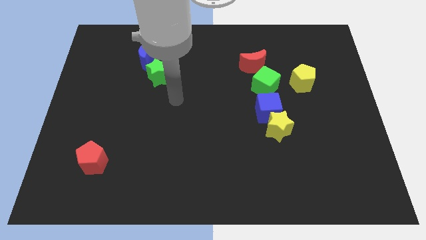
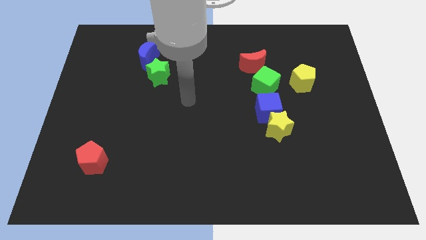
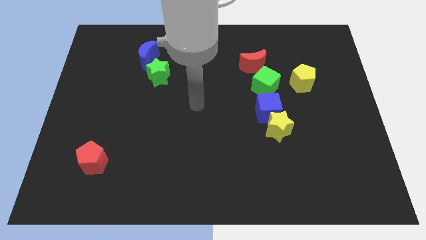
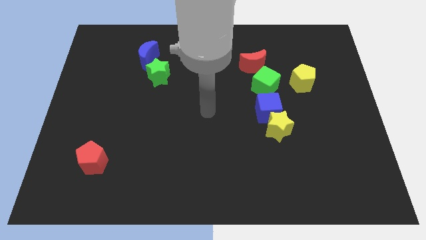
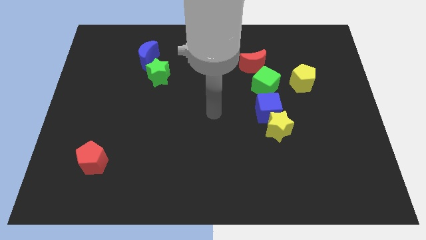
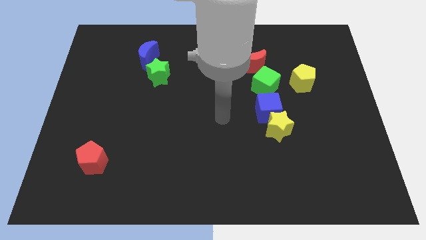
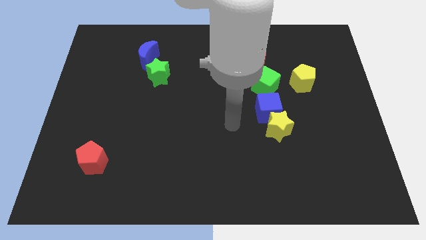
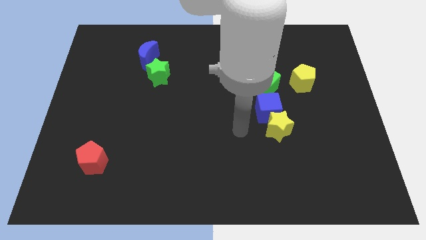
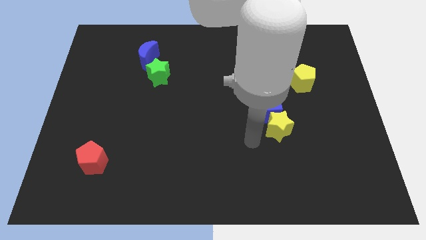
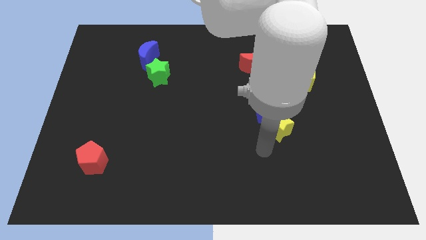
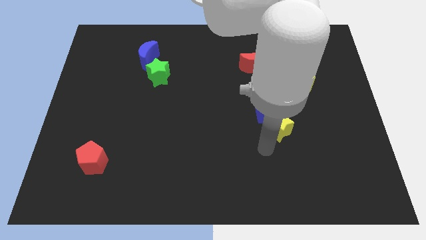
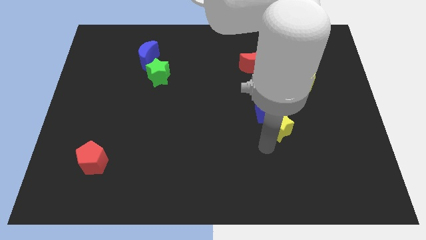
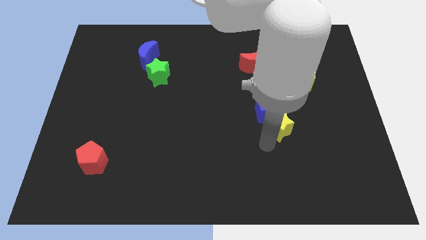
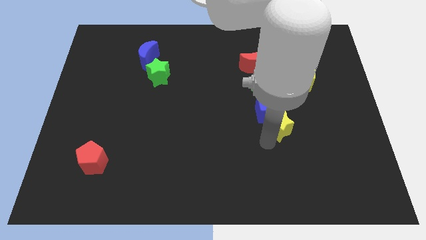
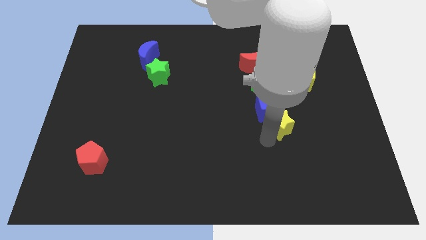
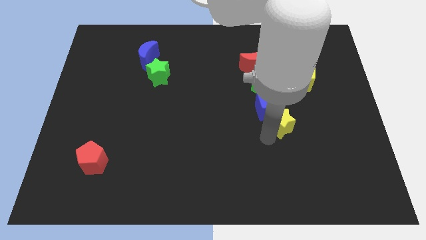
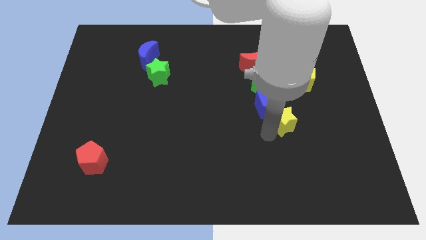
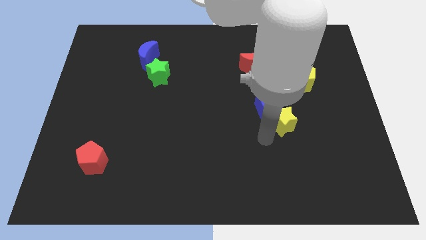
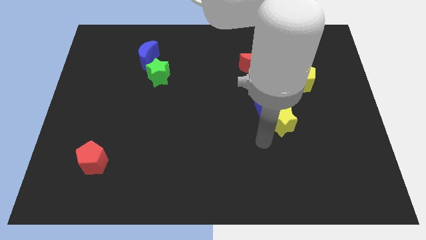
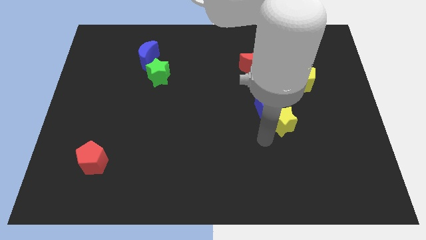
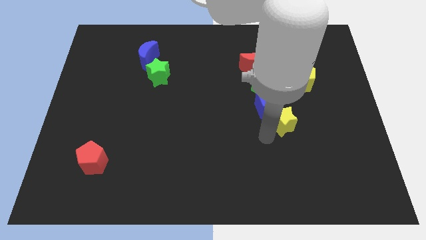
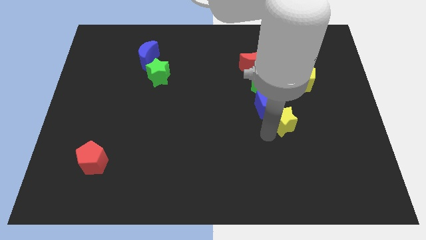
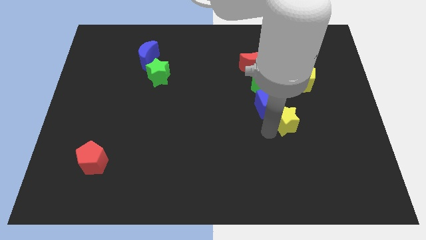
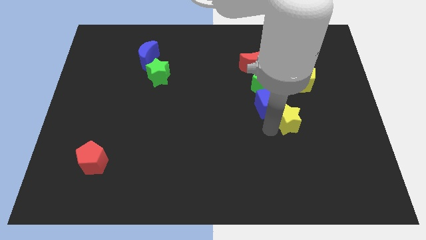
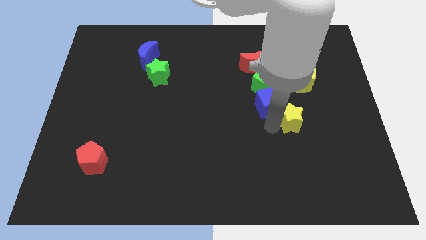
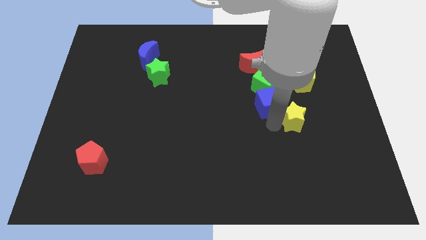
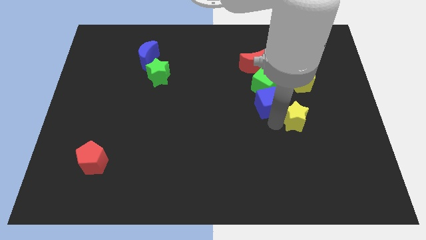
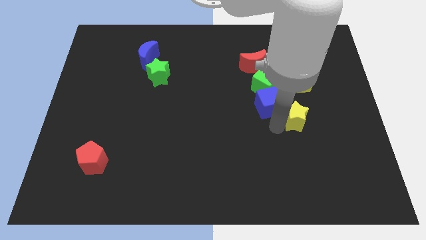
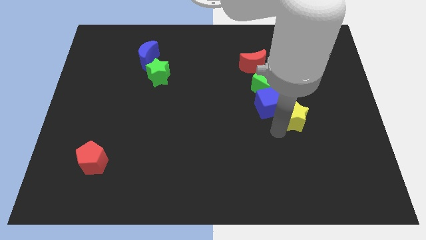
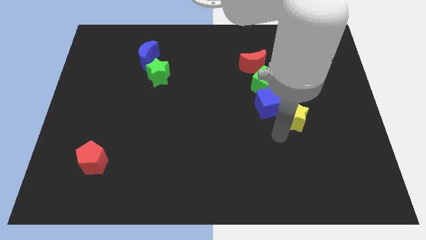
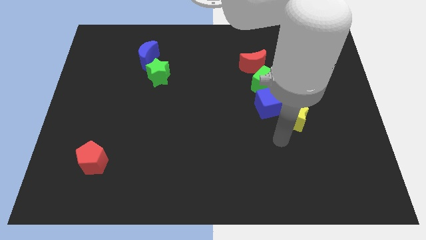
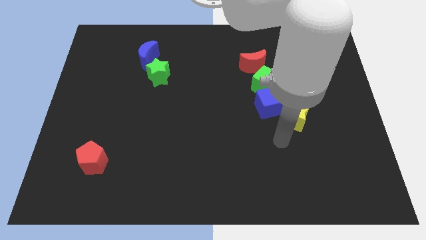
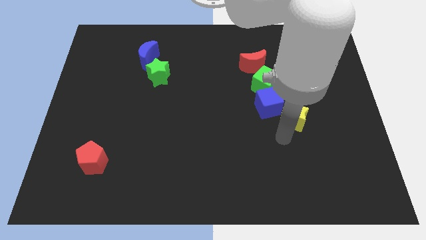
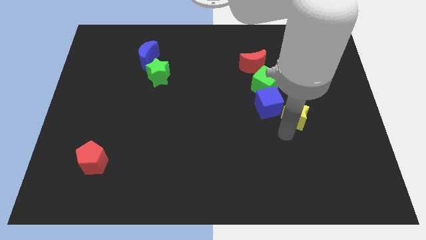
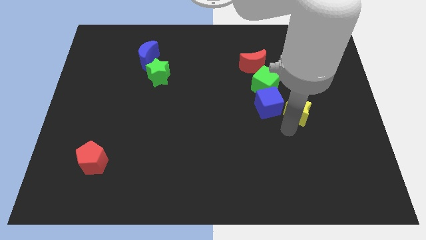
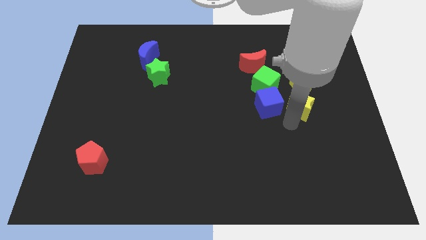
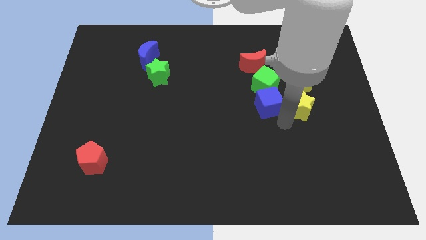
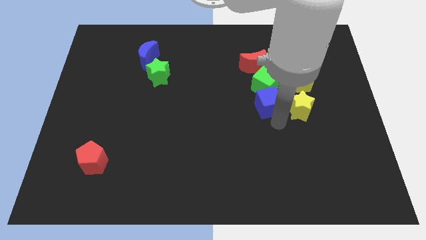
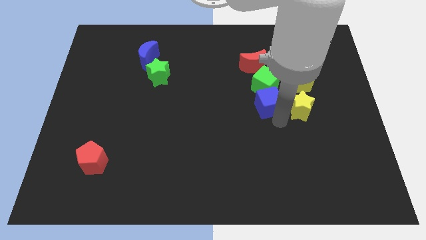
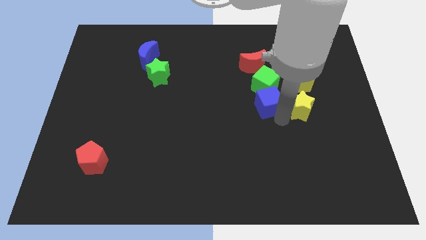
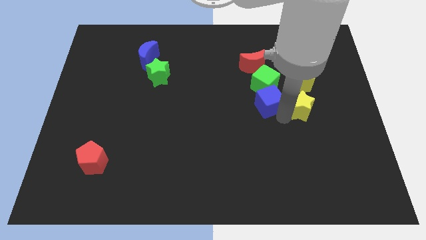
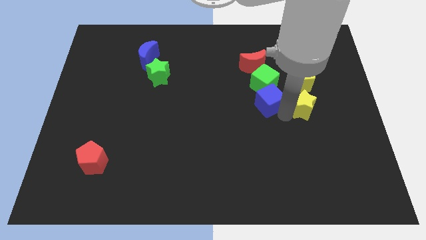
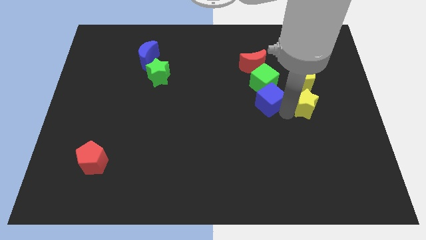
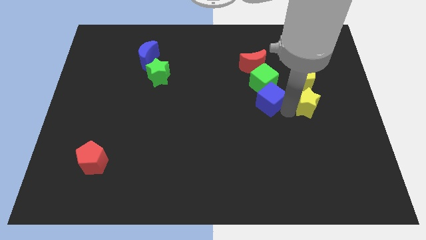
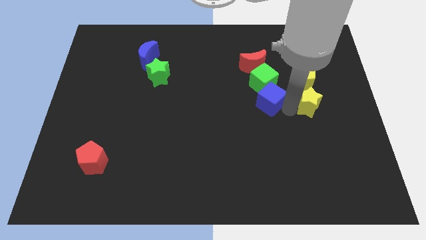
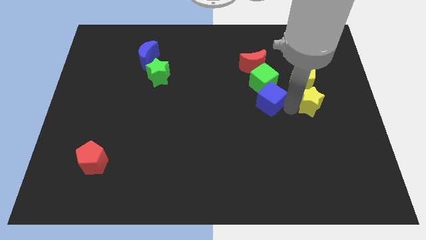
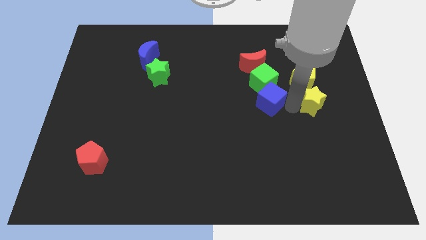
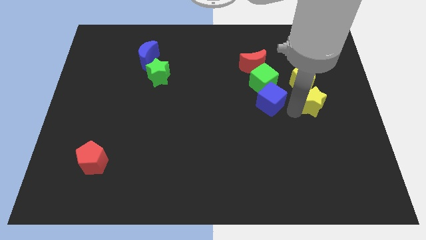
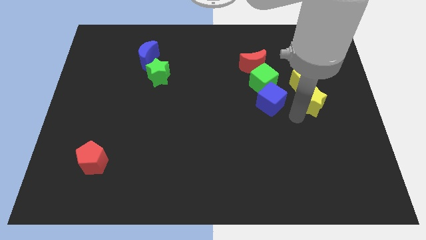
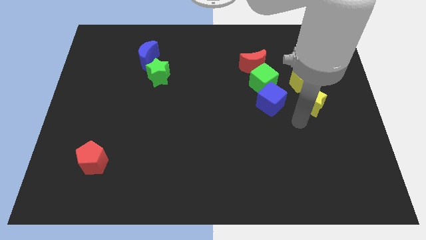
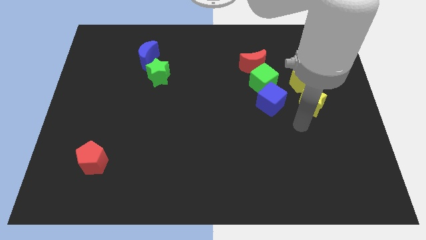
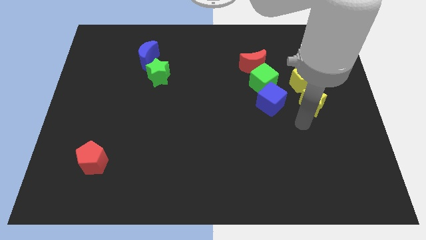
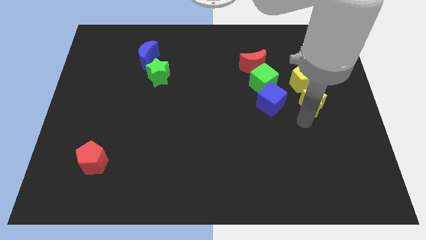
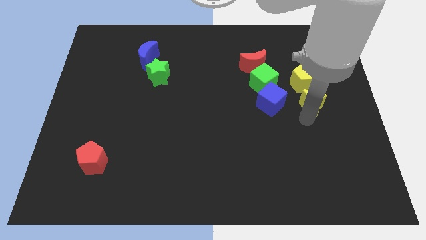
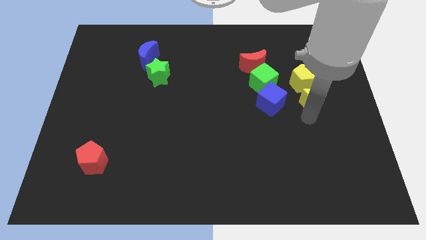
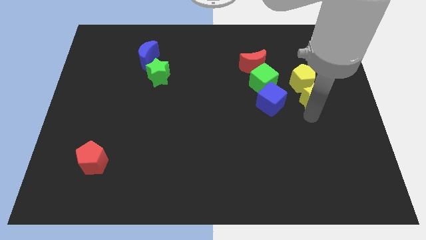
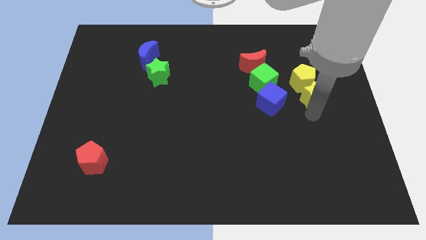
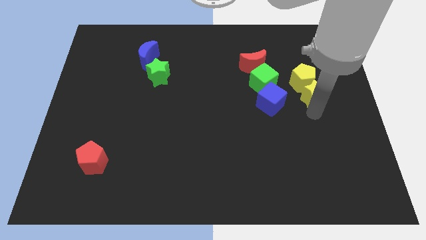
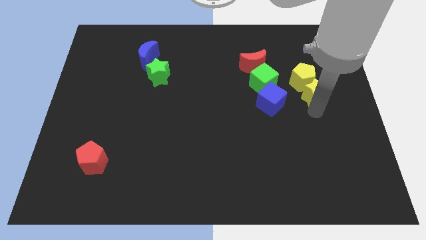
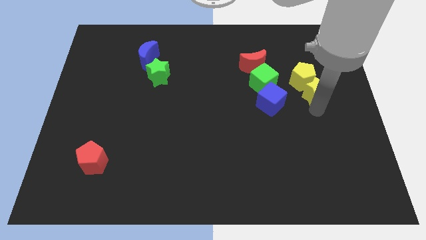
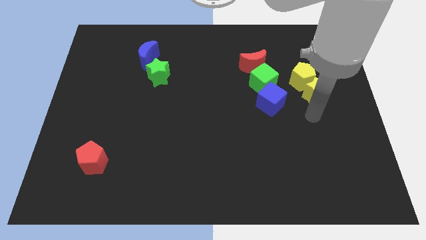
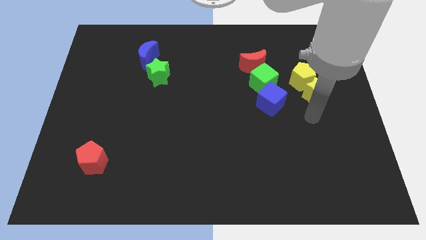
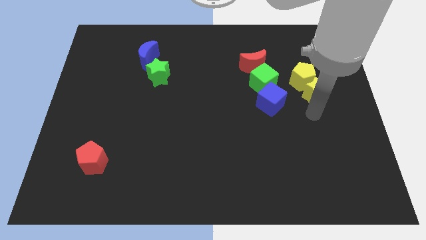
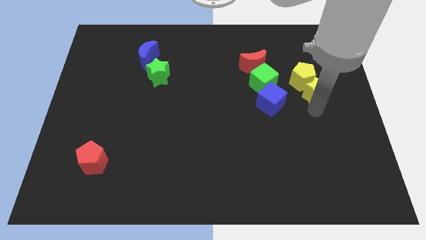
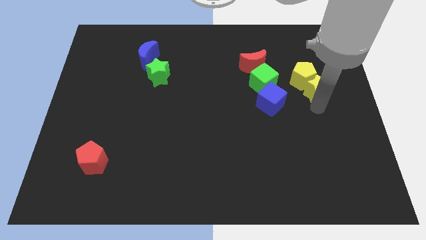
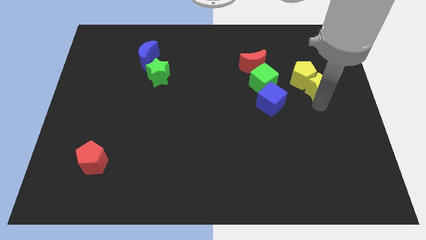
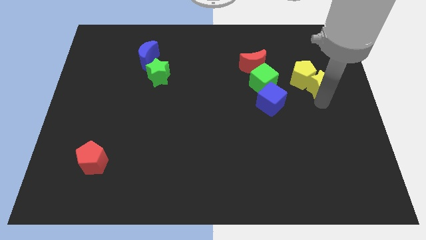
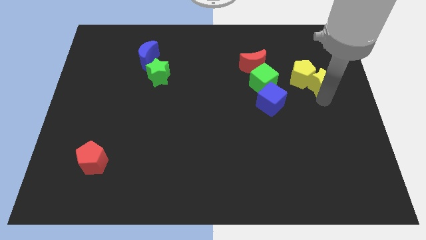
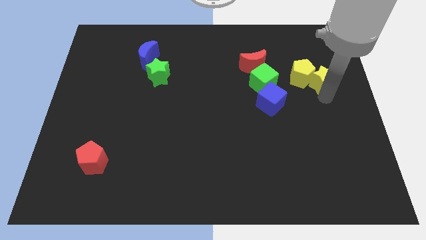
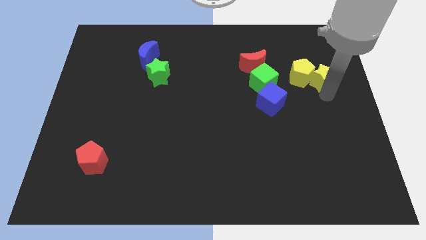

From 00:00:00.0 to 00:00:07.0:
move the yellow star diagonally up and to the right of the yellow pentagon
